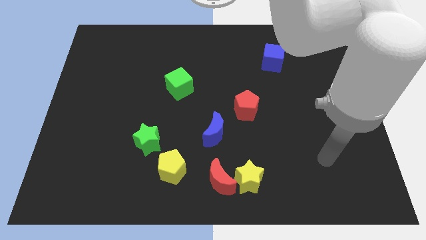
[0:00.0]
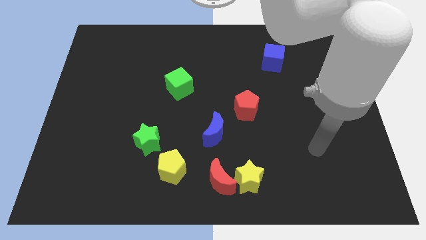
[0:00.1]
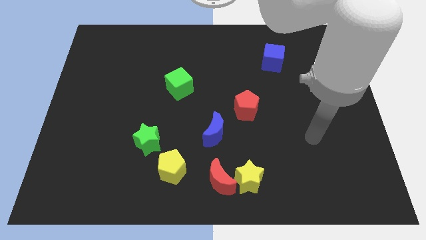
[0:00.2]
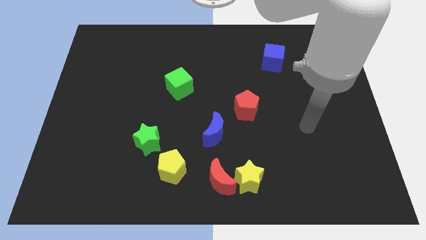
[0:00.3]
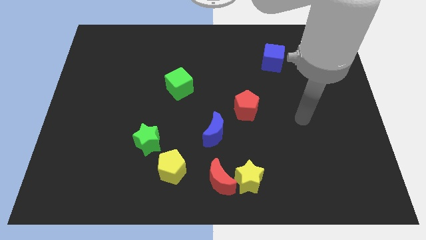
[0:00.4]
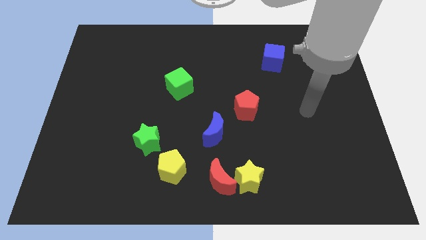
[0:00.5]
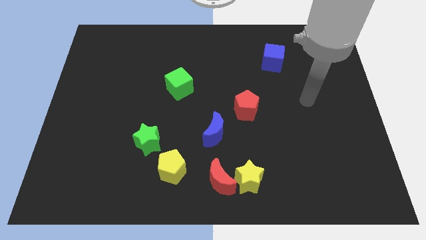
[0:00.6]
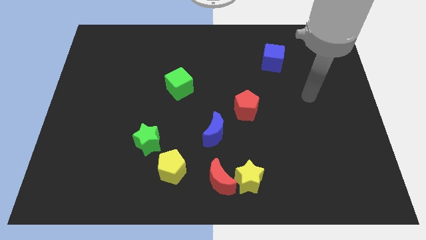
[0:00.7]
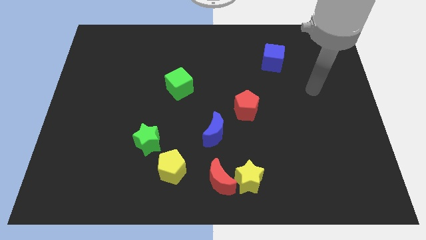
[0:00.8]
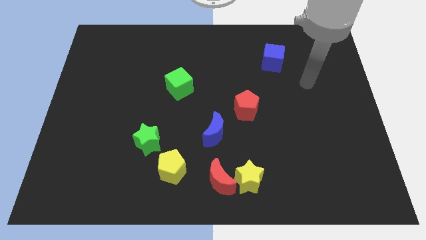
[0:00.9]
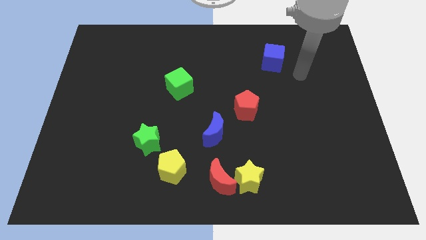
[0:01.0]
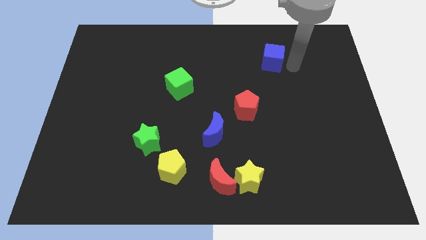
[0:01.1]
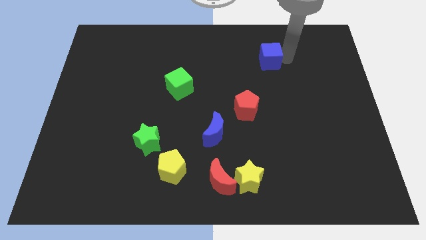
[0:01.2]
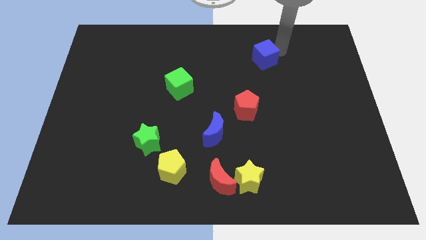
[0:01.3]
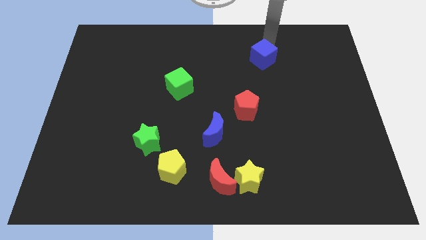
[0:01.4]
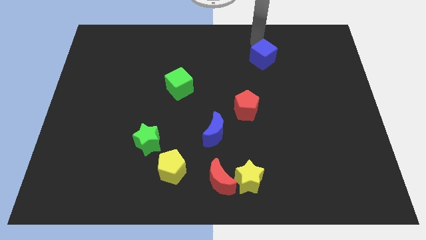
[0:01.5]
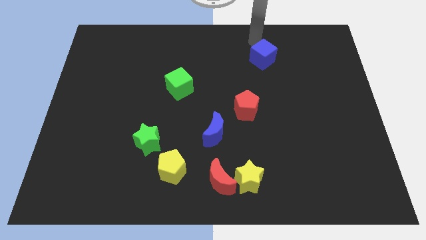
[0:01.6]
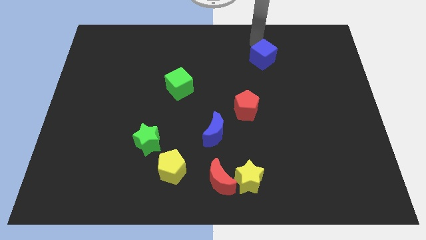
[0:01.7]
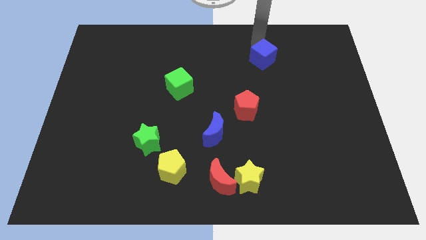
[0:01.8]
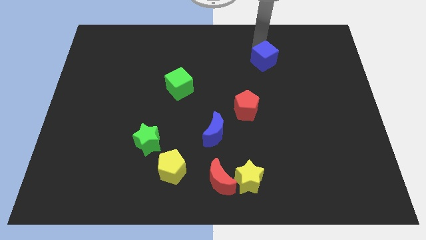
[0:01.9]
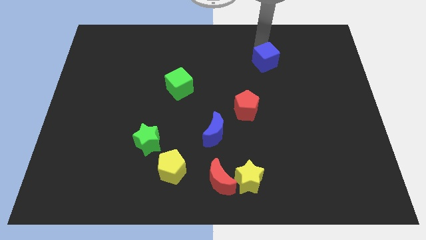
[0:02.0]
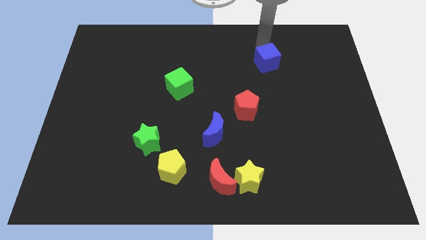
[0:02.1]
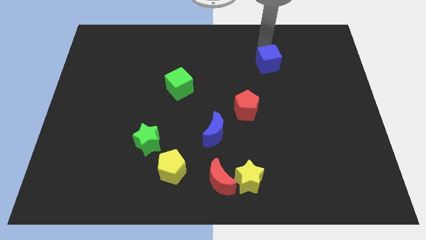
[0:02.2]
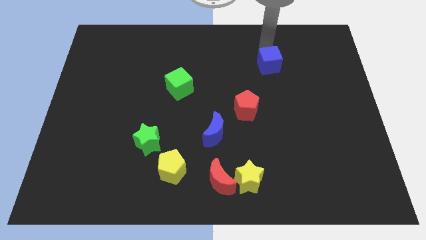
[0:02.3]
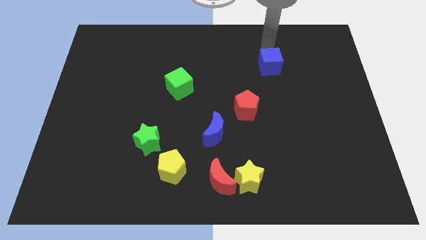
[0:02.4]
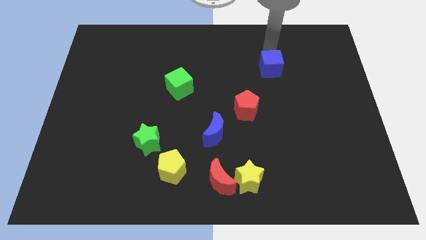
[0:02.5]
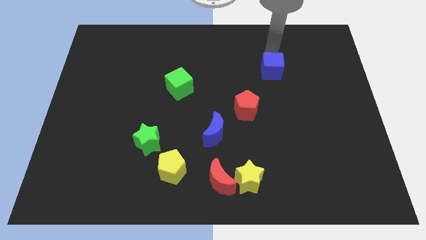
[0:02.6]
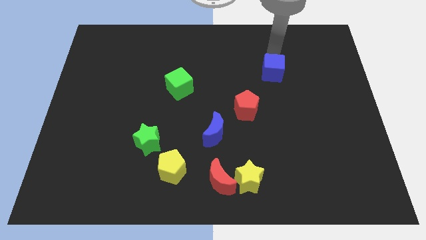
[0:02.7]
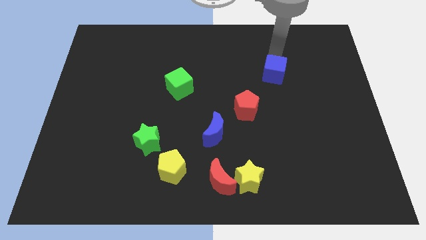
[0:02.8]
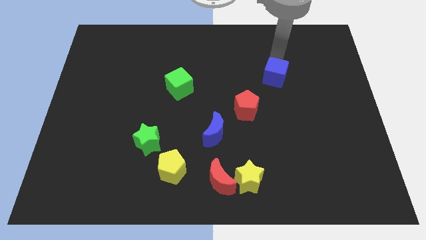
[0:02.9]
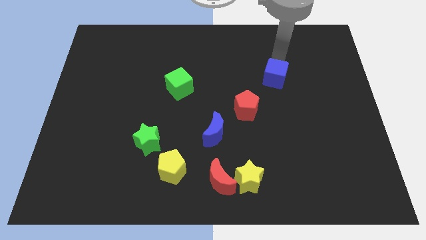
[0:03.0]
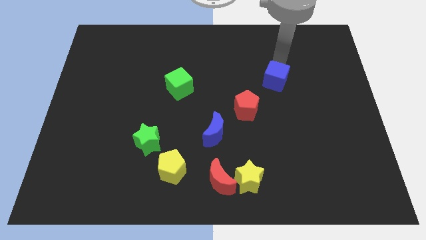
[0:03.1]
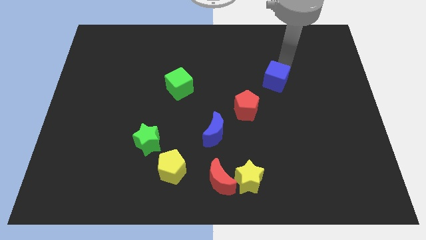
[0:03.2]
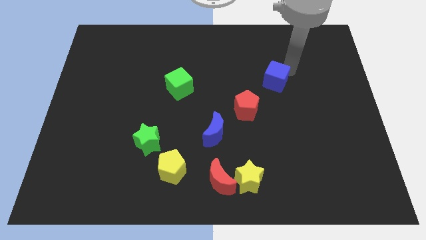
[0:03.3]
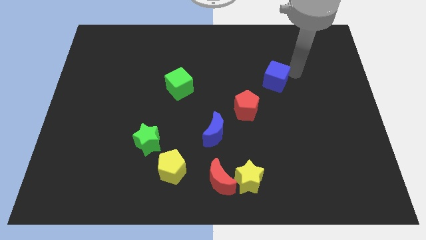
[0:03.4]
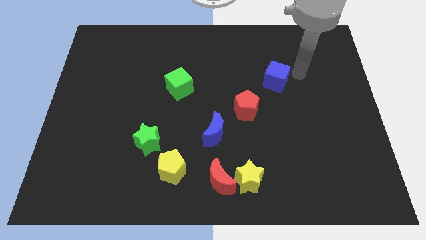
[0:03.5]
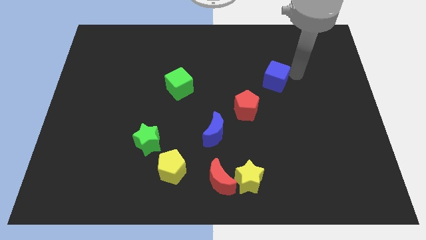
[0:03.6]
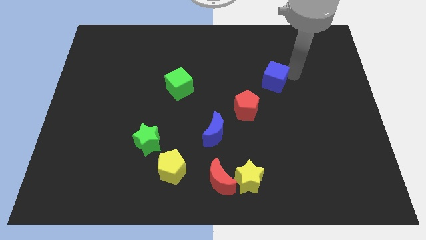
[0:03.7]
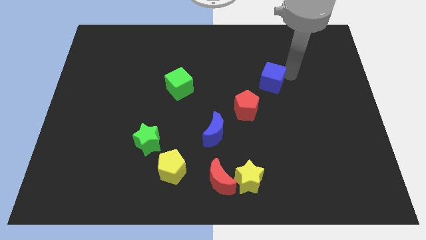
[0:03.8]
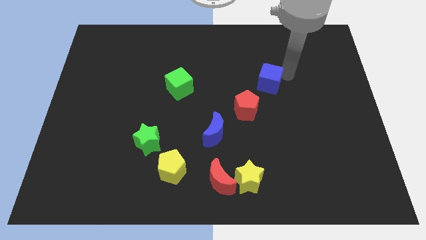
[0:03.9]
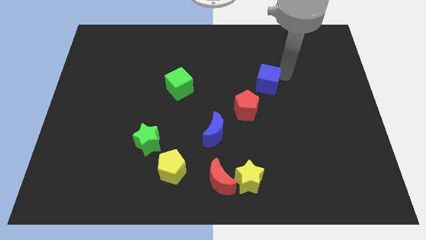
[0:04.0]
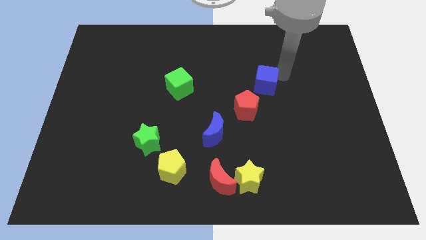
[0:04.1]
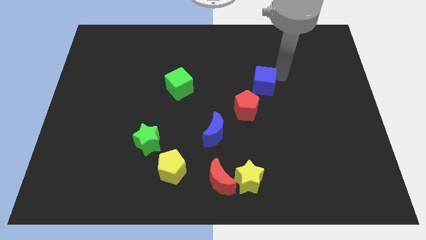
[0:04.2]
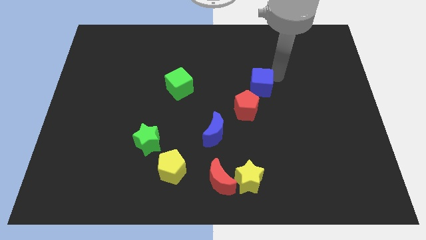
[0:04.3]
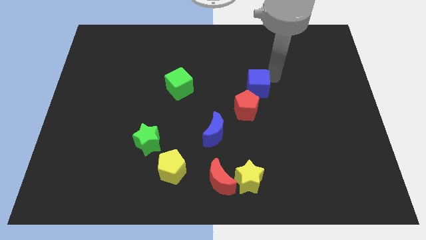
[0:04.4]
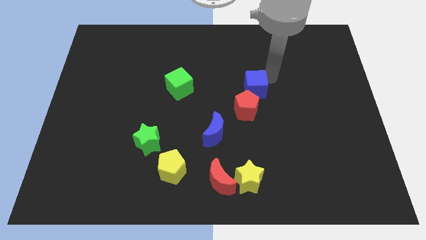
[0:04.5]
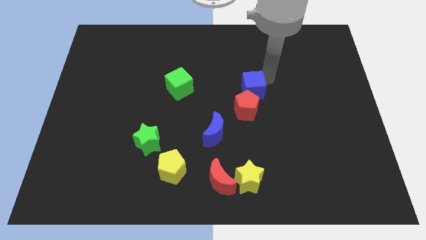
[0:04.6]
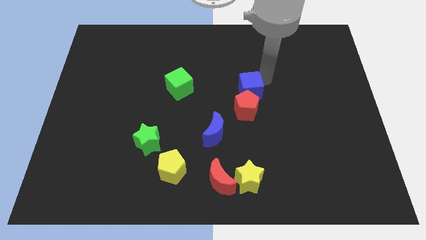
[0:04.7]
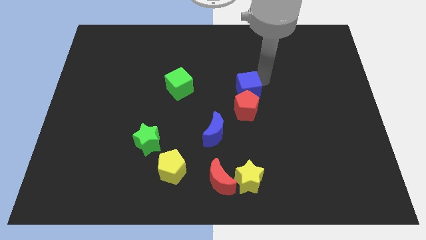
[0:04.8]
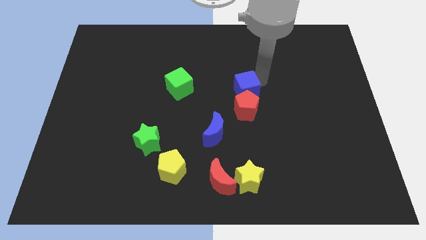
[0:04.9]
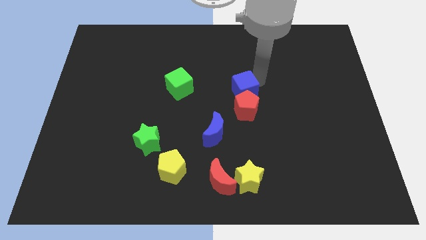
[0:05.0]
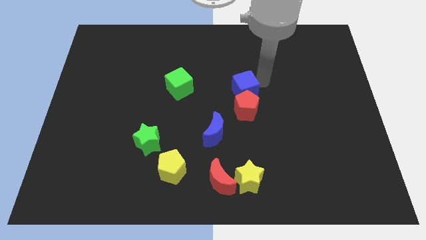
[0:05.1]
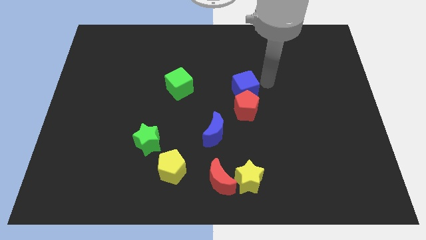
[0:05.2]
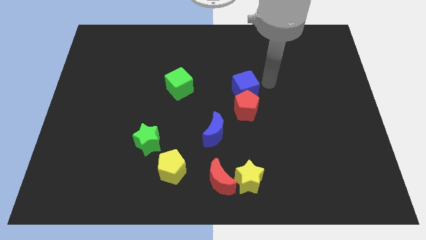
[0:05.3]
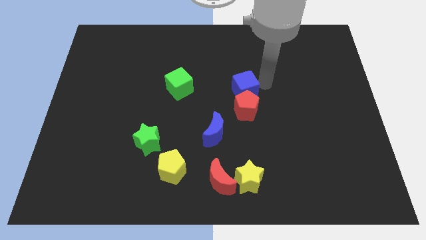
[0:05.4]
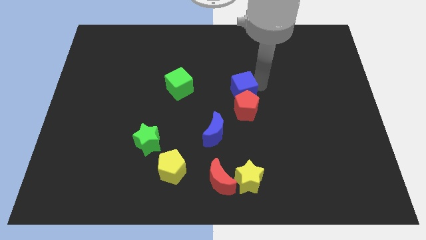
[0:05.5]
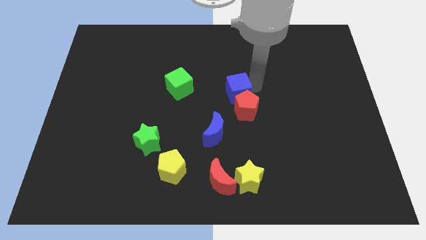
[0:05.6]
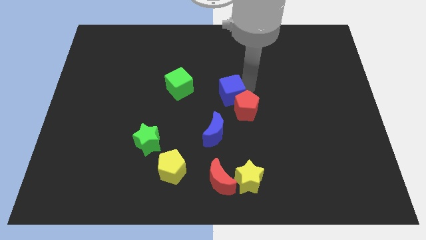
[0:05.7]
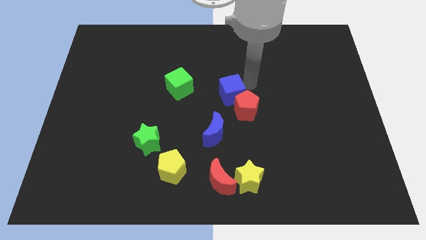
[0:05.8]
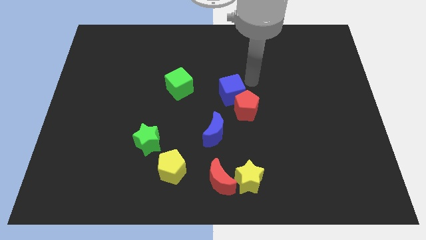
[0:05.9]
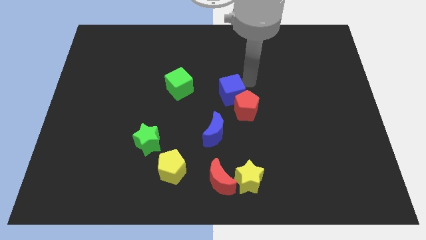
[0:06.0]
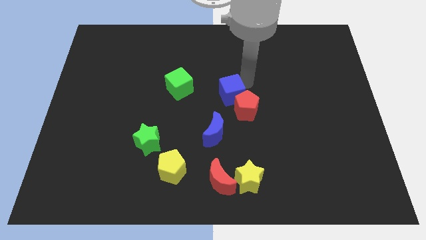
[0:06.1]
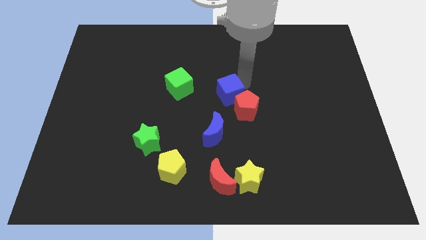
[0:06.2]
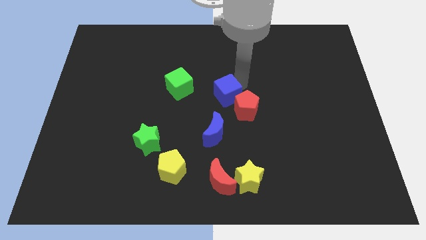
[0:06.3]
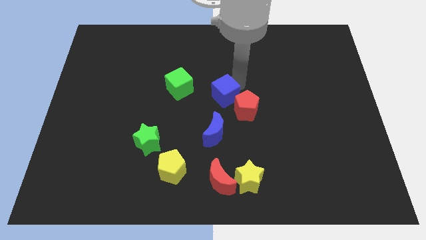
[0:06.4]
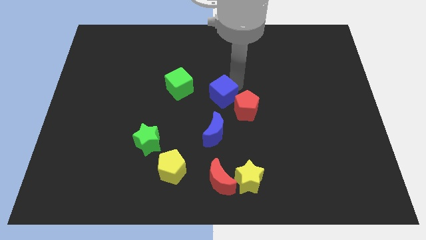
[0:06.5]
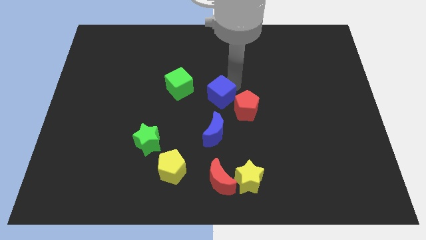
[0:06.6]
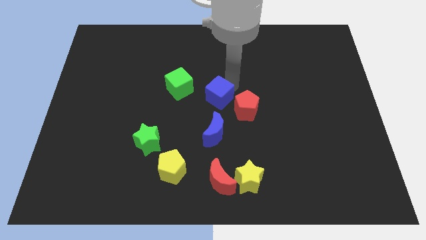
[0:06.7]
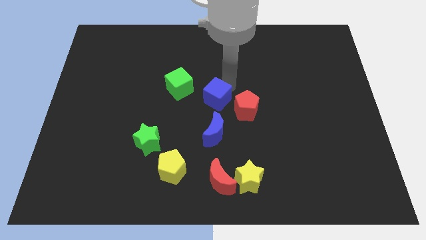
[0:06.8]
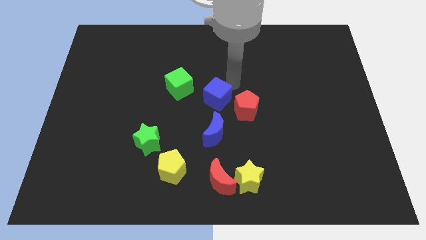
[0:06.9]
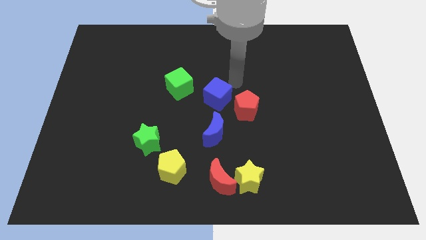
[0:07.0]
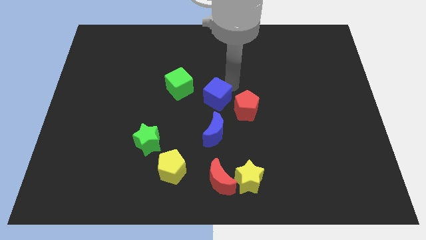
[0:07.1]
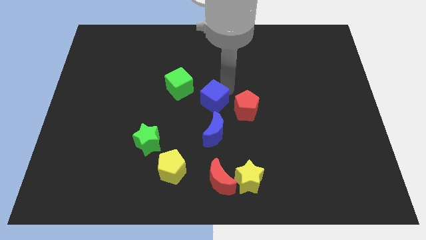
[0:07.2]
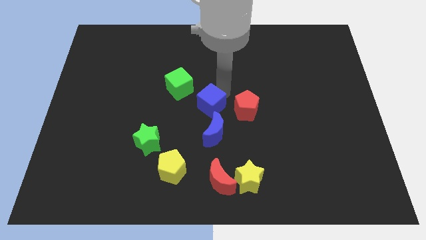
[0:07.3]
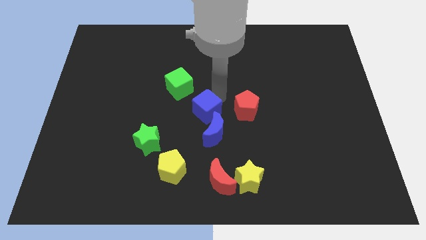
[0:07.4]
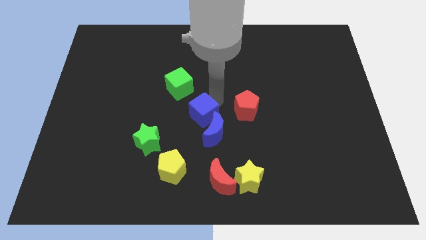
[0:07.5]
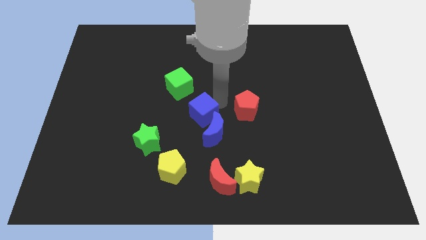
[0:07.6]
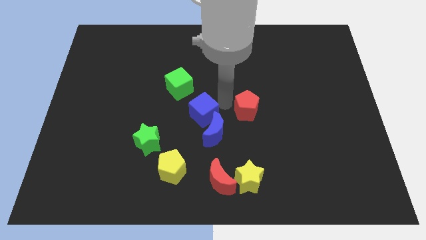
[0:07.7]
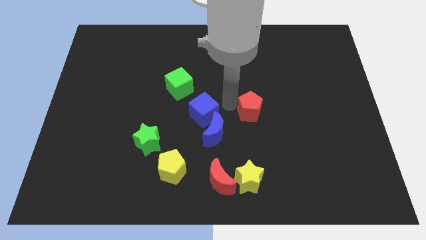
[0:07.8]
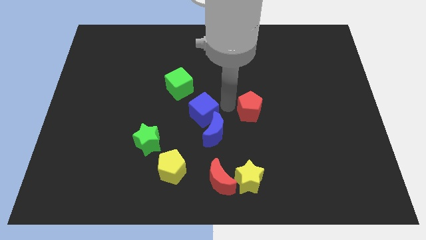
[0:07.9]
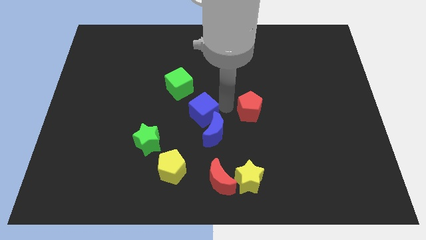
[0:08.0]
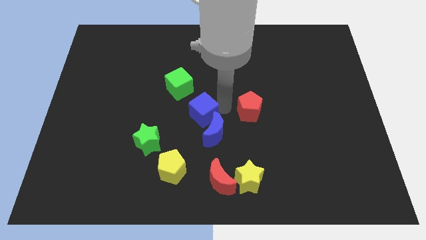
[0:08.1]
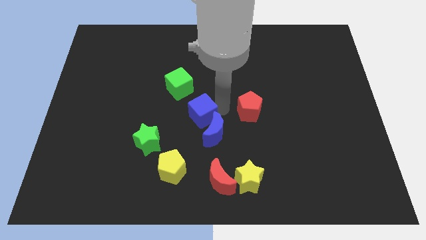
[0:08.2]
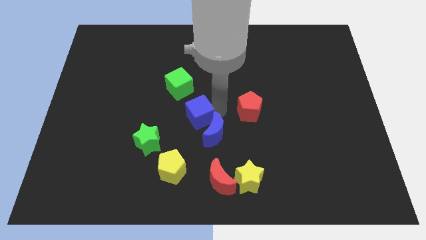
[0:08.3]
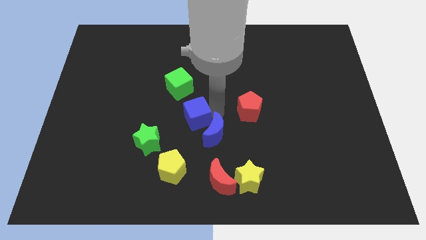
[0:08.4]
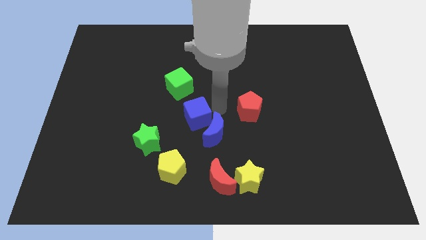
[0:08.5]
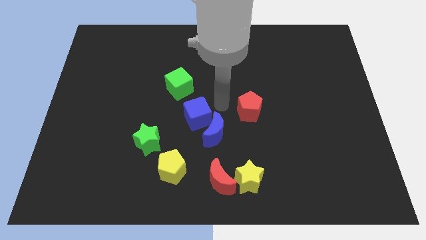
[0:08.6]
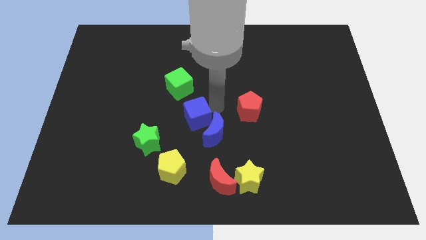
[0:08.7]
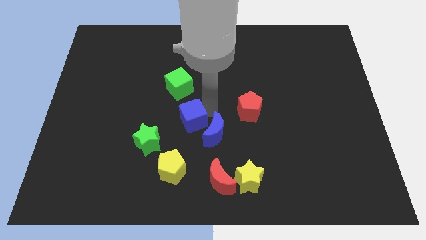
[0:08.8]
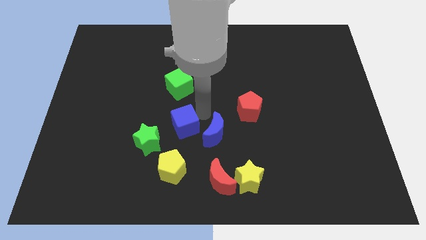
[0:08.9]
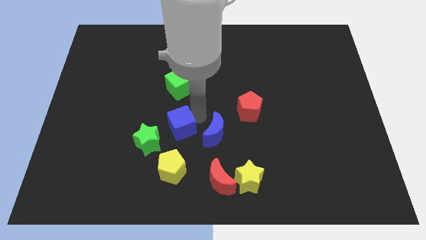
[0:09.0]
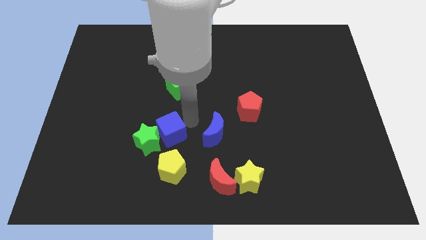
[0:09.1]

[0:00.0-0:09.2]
slide the blue cube close to the green star
